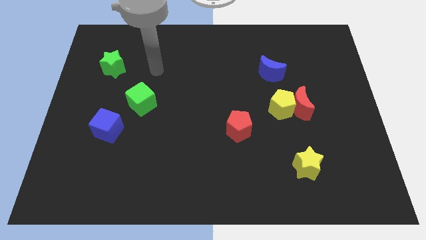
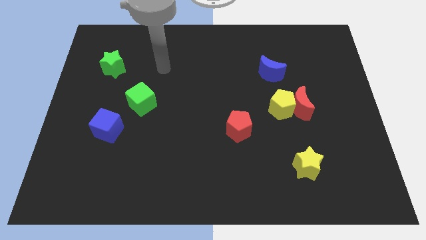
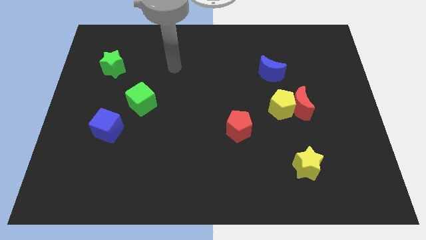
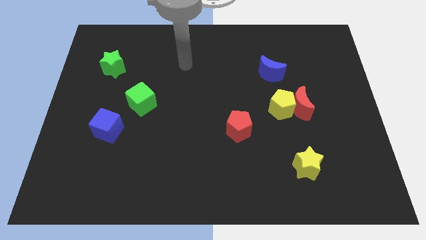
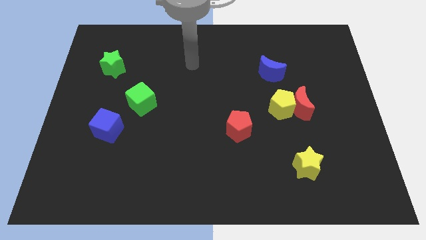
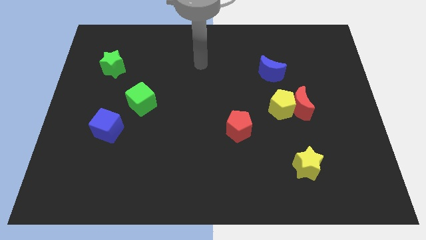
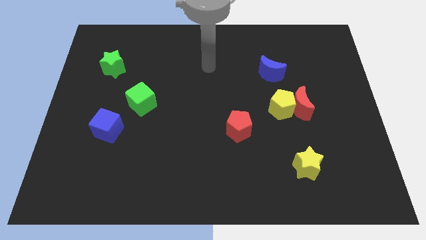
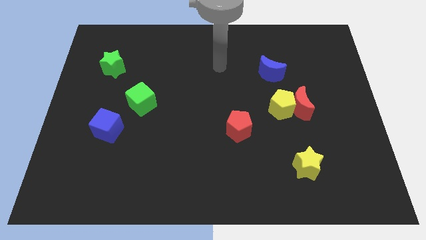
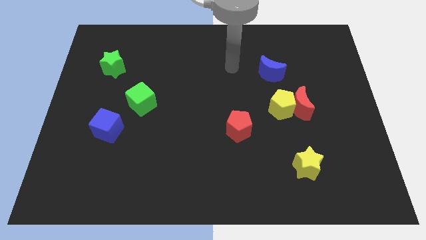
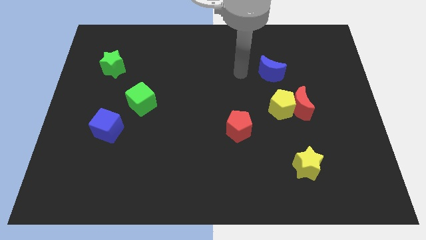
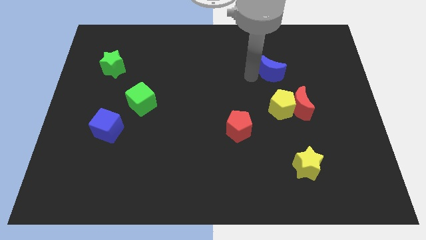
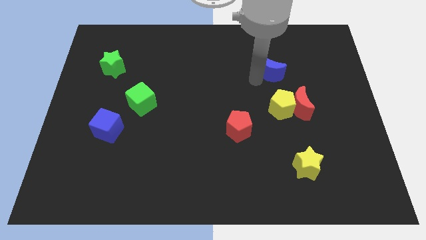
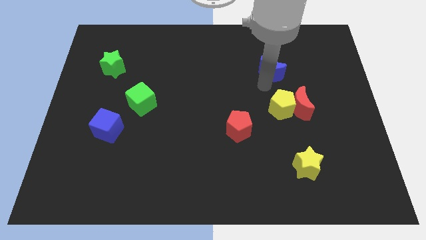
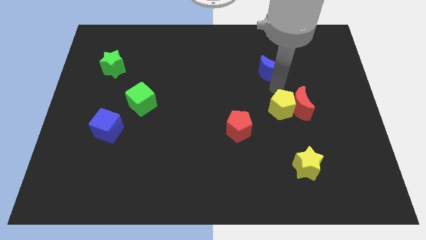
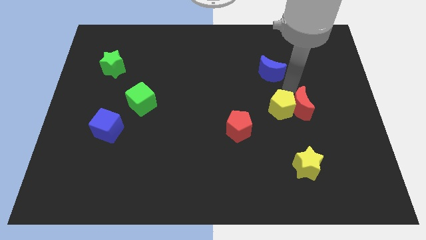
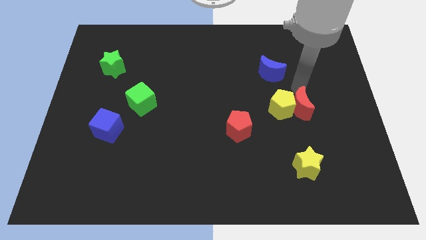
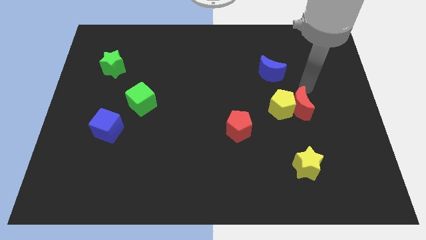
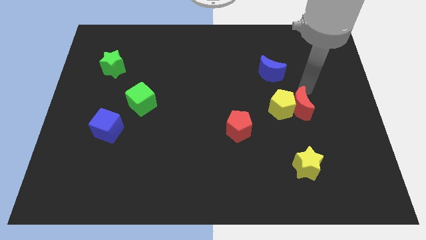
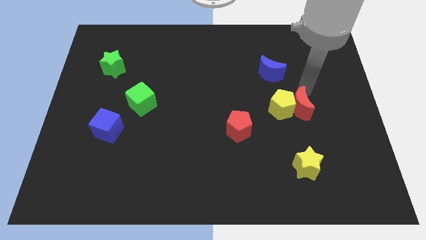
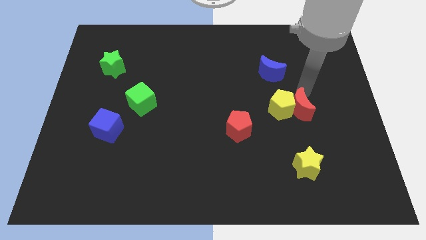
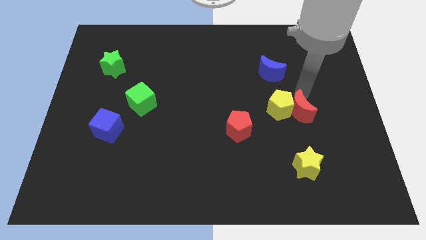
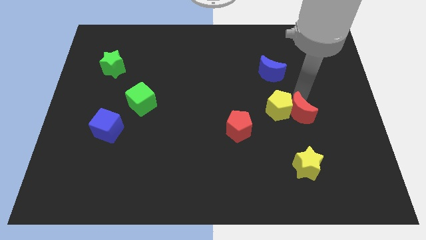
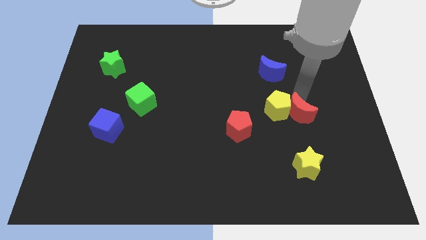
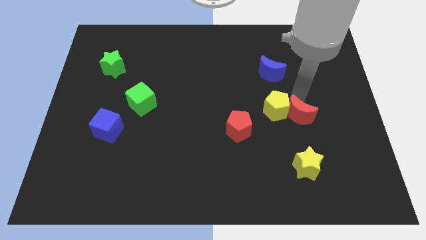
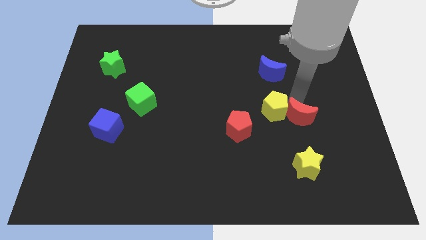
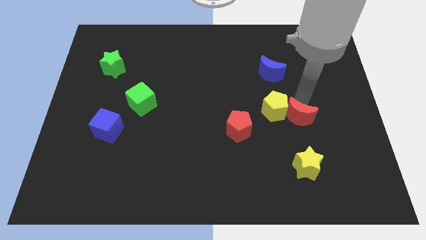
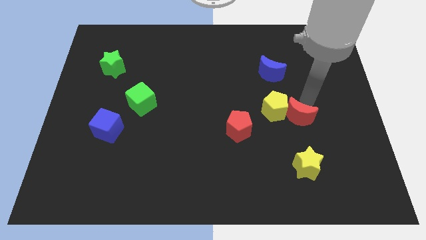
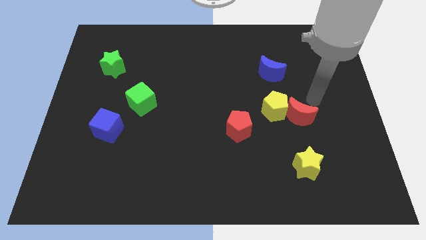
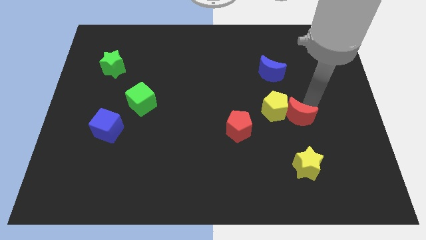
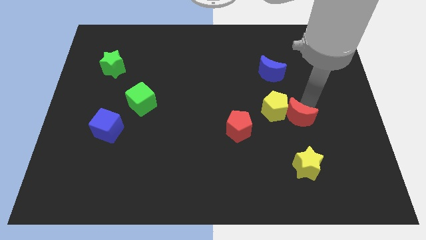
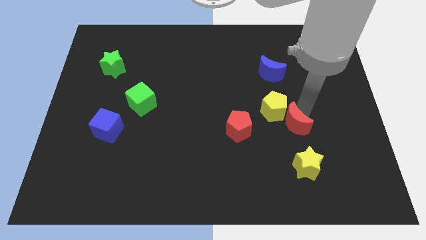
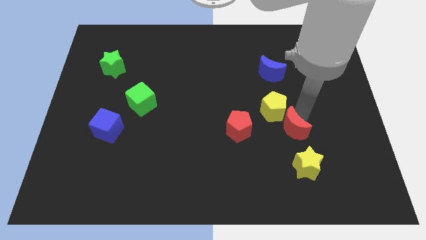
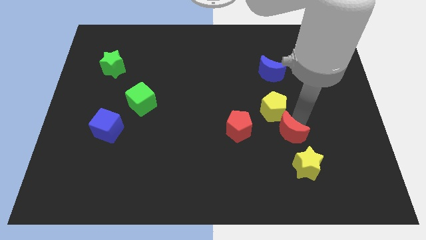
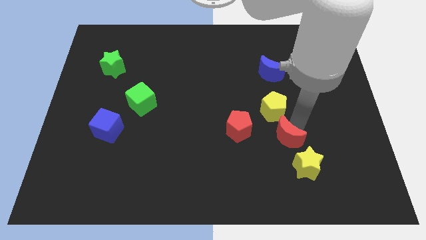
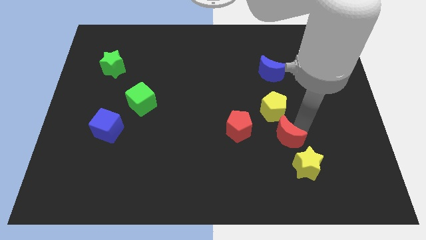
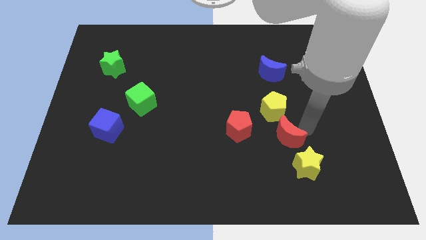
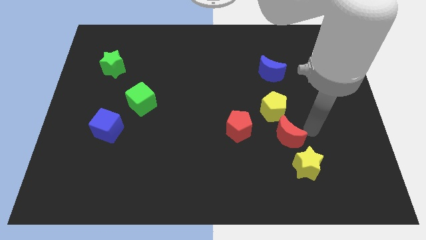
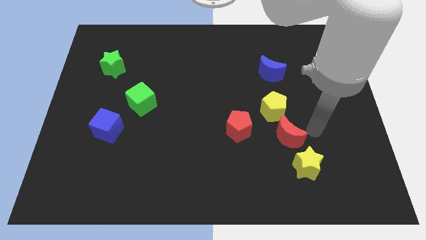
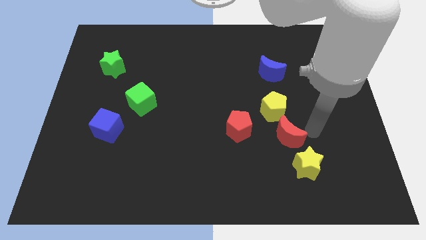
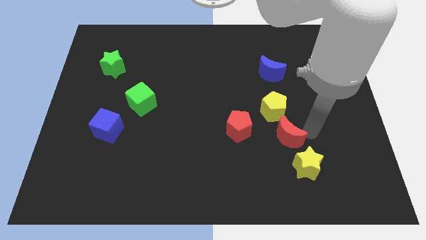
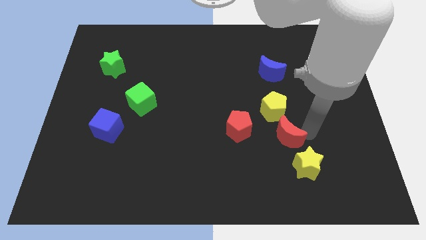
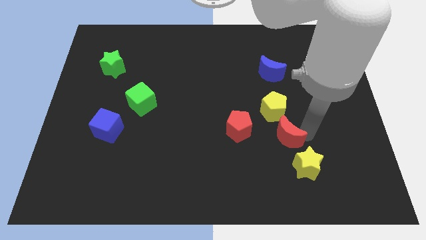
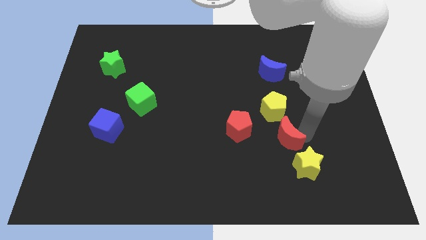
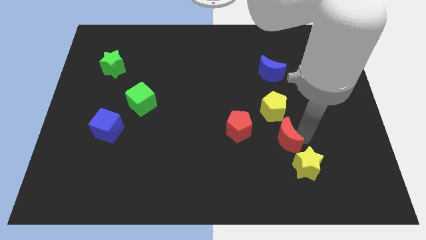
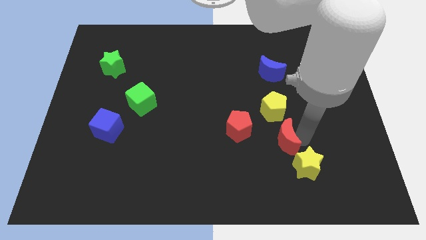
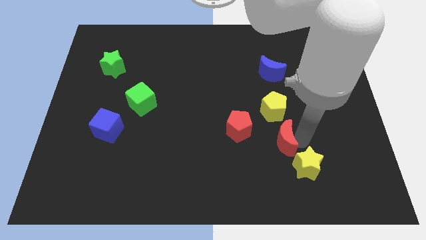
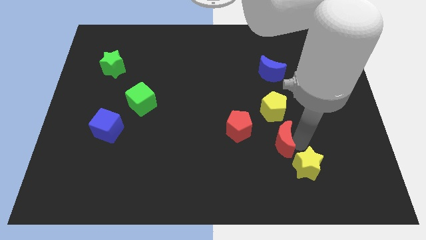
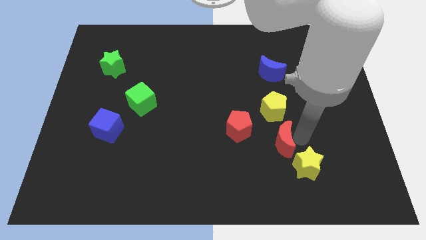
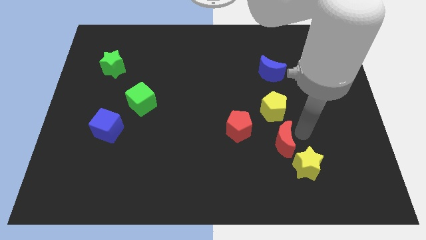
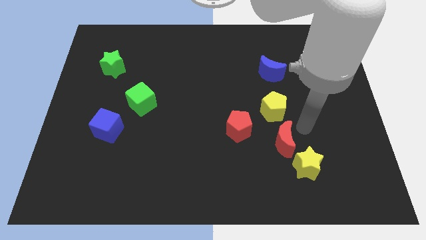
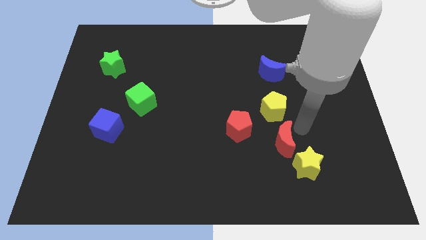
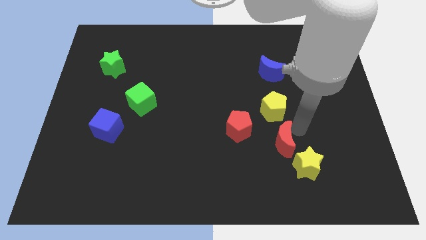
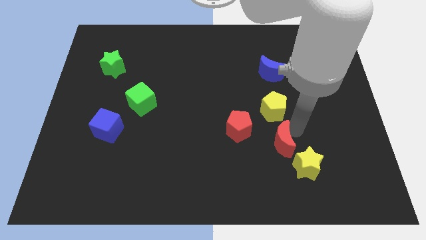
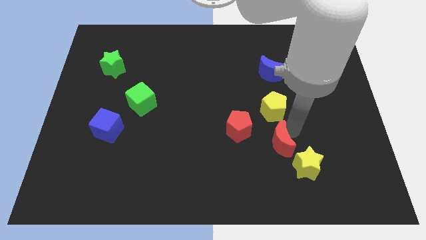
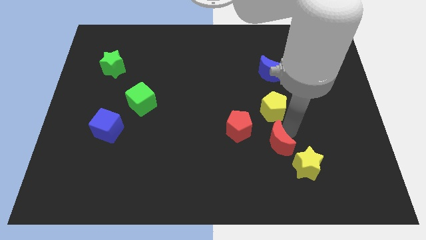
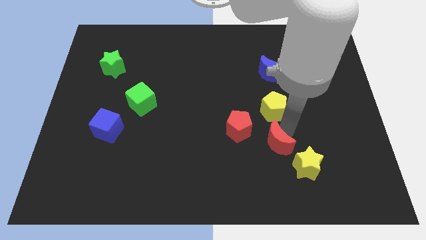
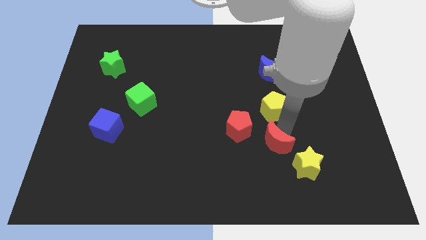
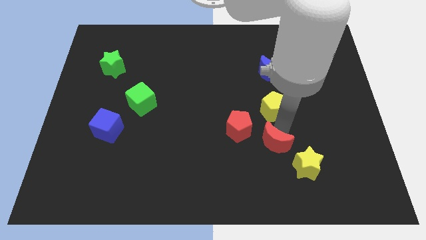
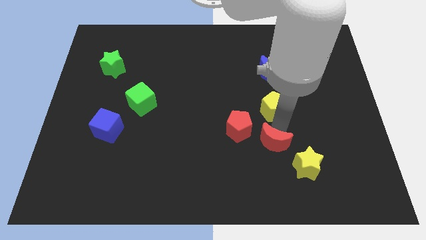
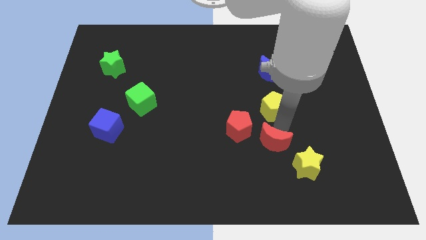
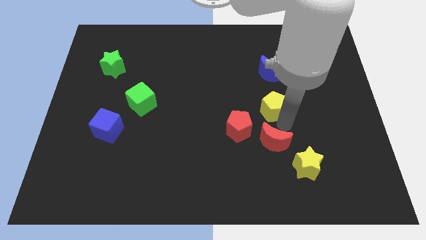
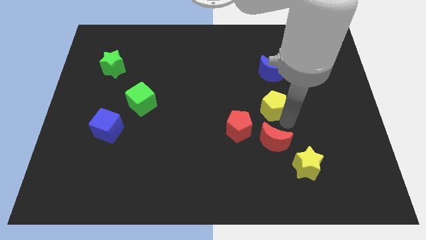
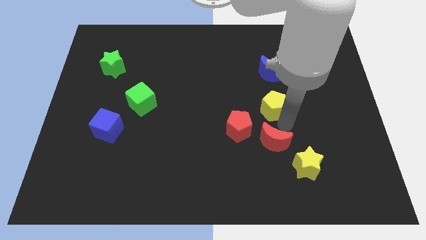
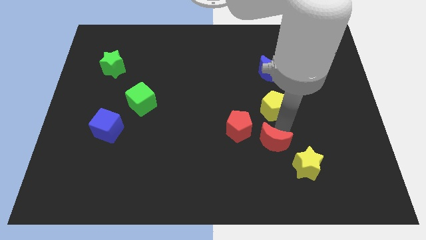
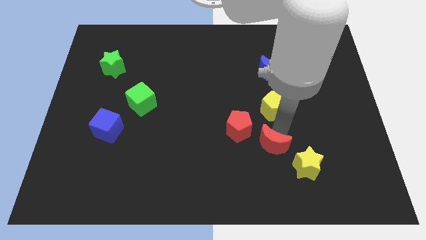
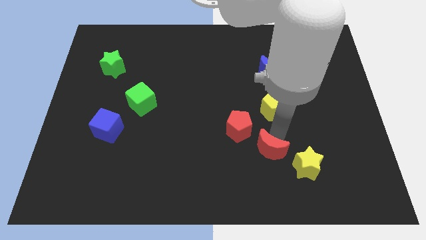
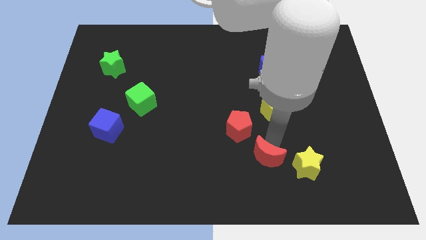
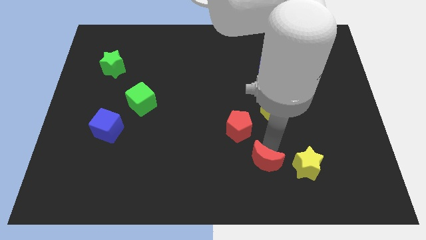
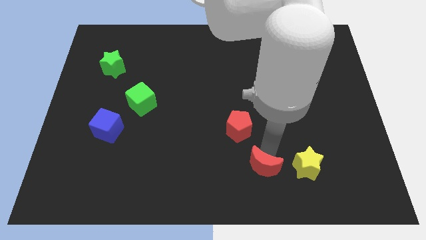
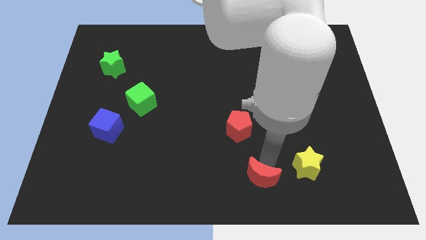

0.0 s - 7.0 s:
put the red moon to the bottom
